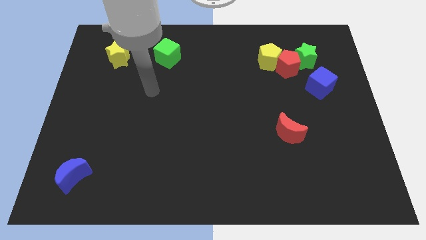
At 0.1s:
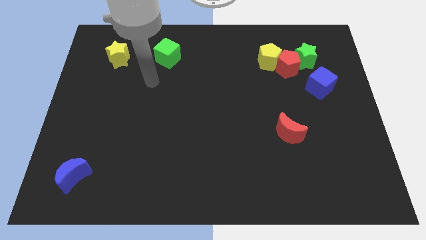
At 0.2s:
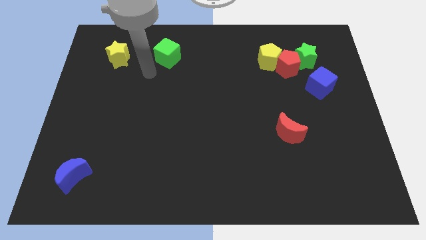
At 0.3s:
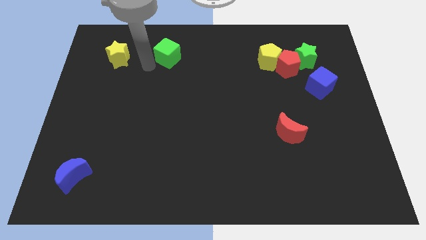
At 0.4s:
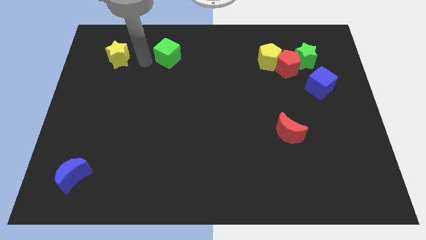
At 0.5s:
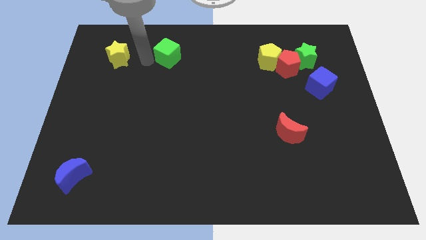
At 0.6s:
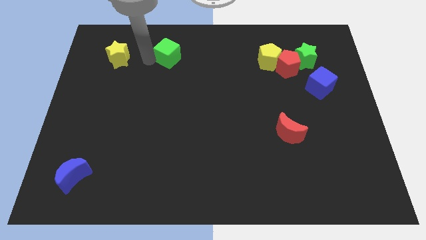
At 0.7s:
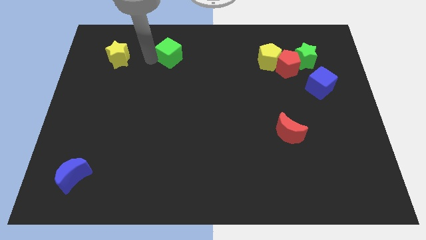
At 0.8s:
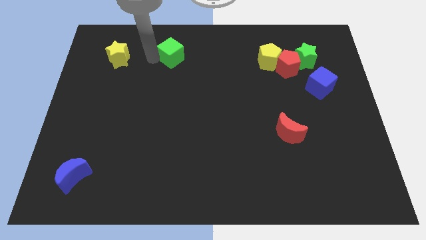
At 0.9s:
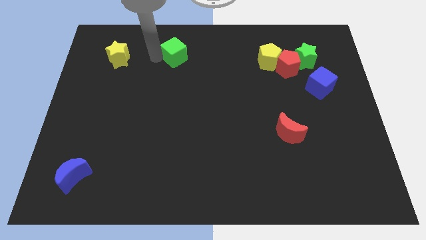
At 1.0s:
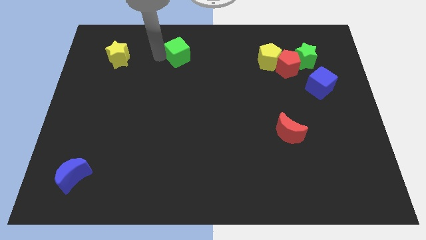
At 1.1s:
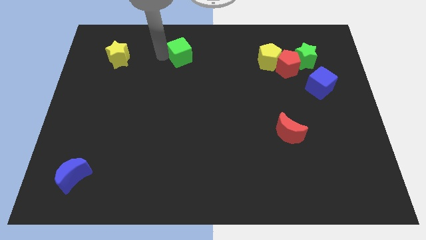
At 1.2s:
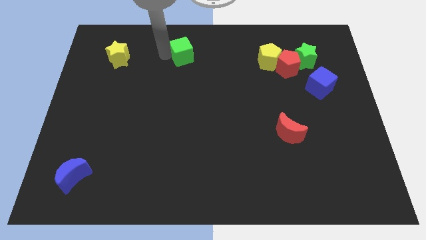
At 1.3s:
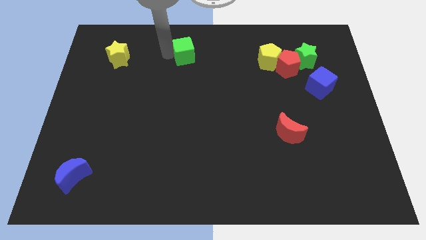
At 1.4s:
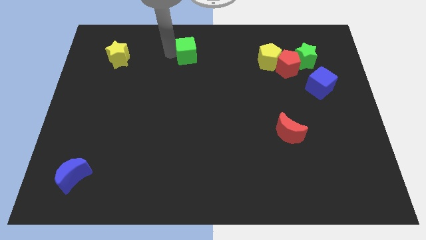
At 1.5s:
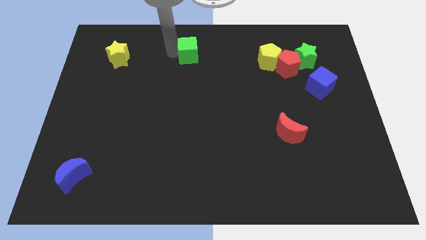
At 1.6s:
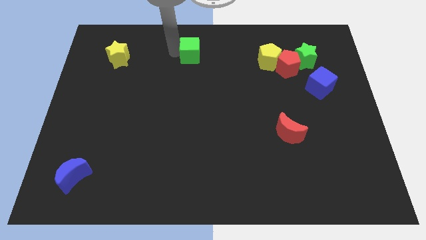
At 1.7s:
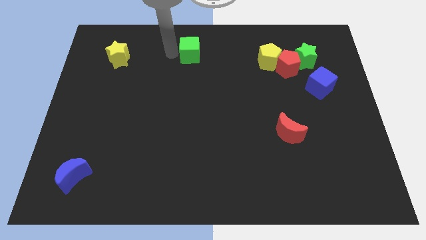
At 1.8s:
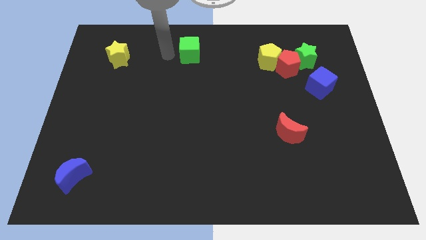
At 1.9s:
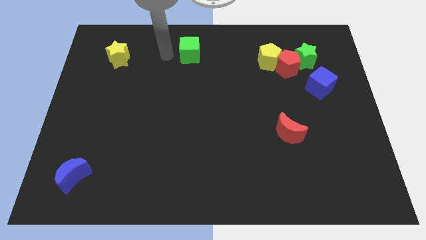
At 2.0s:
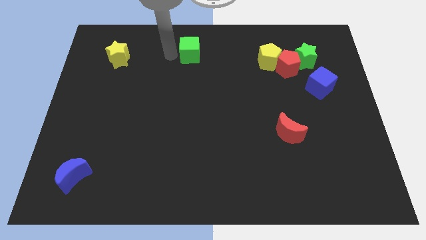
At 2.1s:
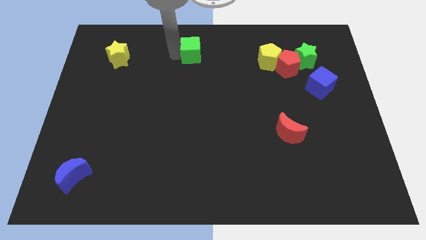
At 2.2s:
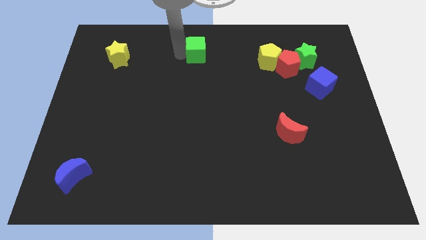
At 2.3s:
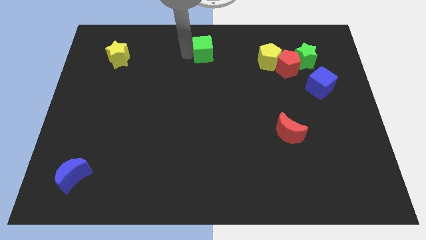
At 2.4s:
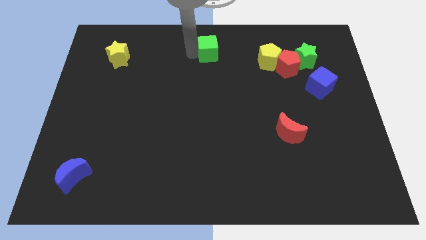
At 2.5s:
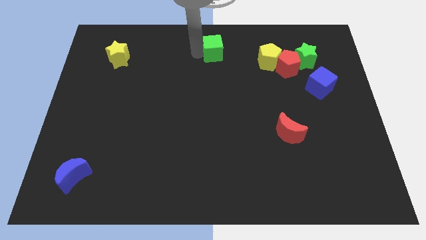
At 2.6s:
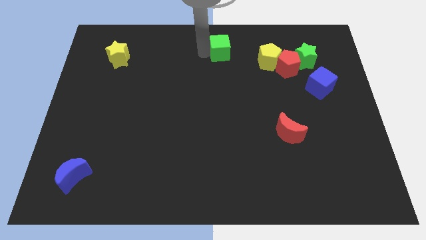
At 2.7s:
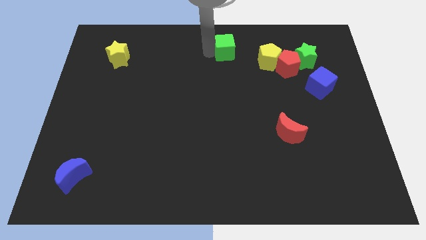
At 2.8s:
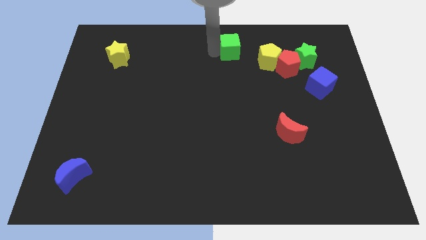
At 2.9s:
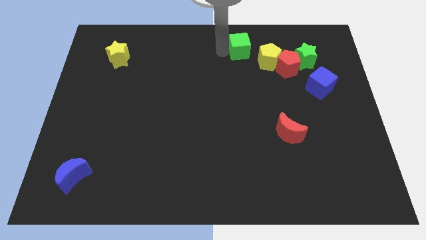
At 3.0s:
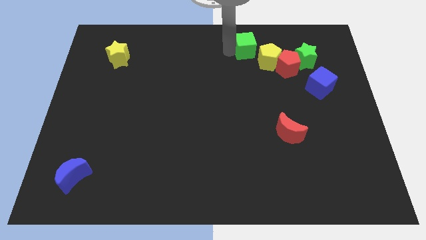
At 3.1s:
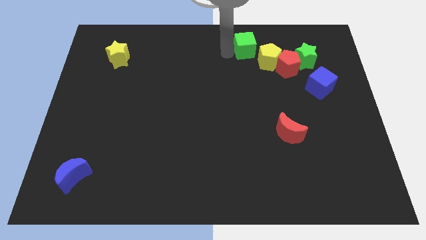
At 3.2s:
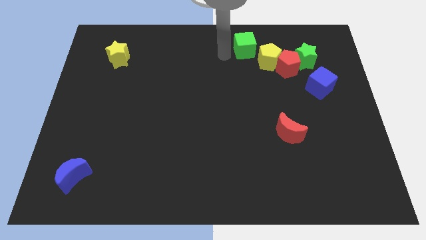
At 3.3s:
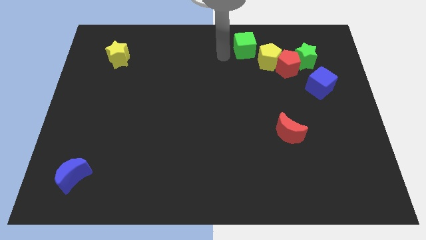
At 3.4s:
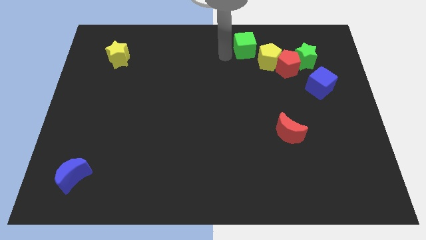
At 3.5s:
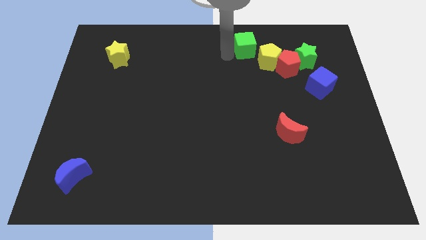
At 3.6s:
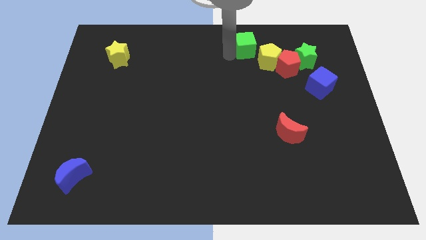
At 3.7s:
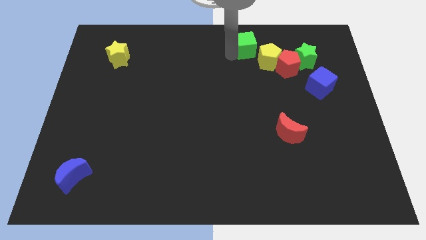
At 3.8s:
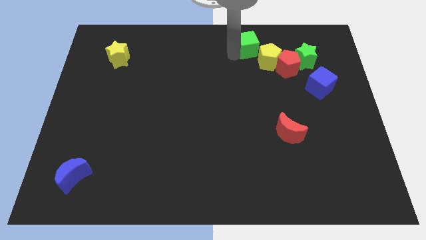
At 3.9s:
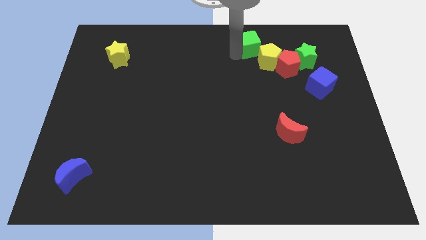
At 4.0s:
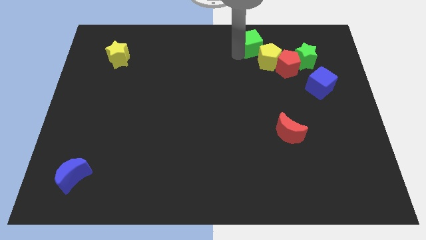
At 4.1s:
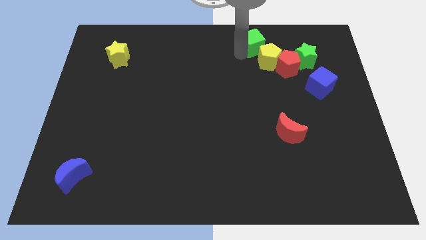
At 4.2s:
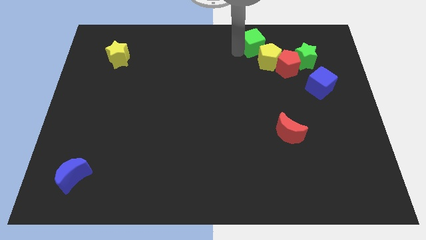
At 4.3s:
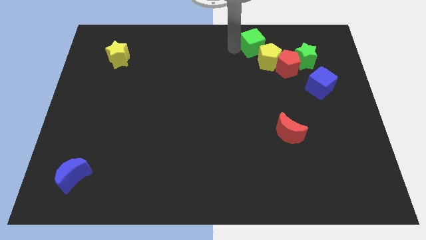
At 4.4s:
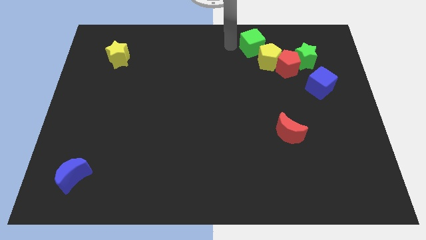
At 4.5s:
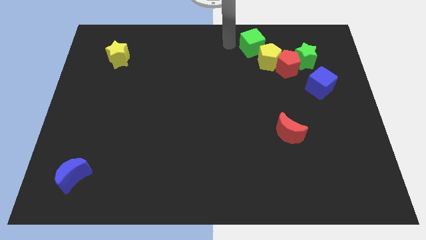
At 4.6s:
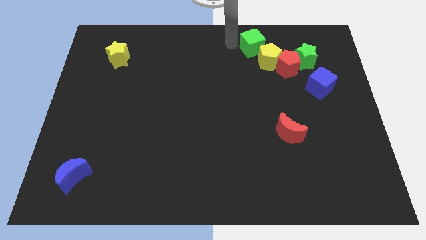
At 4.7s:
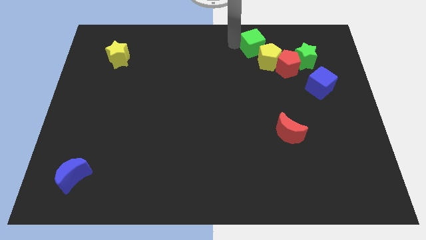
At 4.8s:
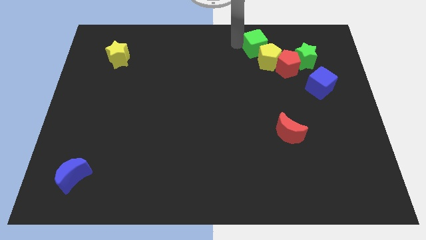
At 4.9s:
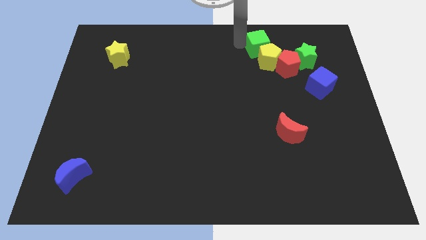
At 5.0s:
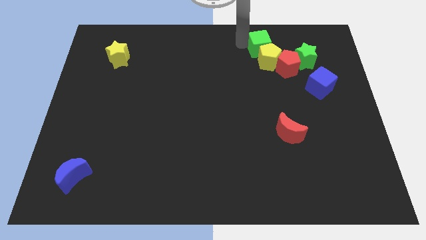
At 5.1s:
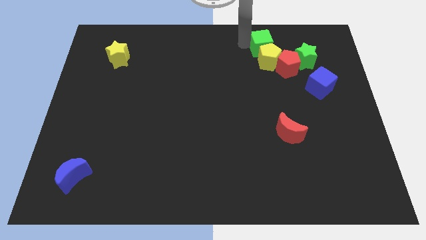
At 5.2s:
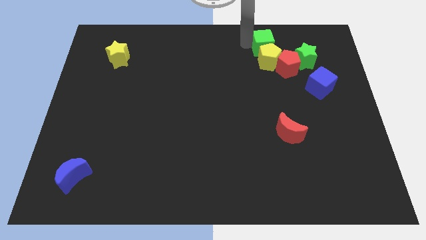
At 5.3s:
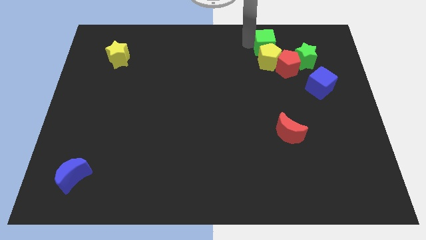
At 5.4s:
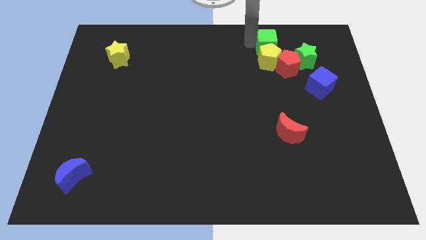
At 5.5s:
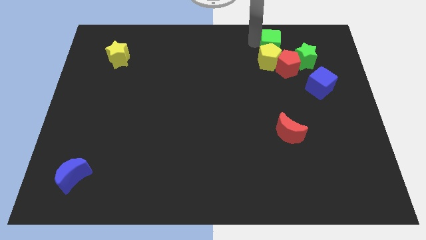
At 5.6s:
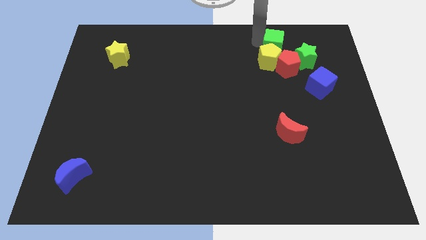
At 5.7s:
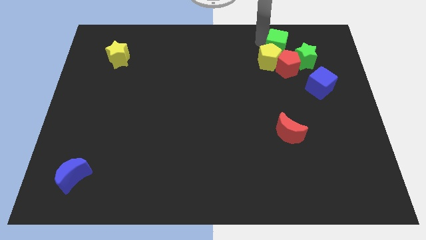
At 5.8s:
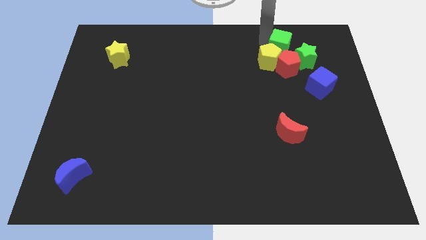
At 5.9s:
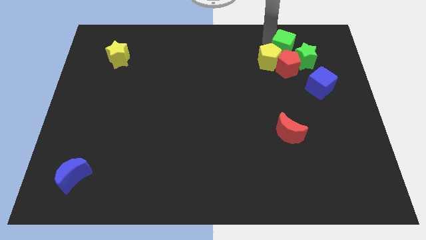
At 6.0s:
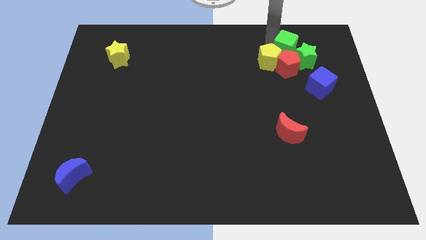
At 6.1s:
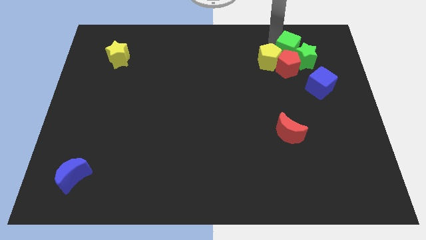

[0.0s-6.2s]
slide the green cube next to the green star

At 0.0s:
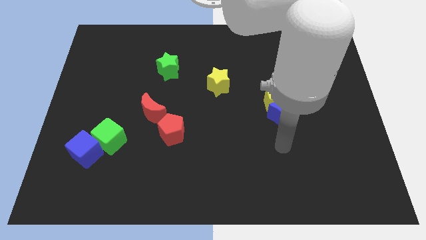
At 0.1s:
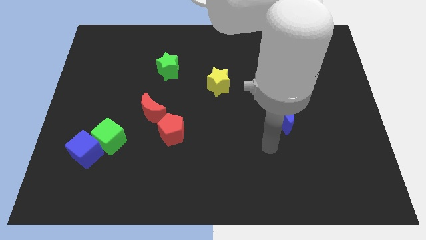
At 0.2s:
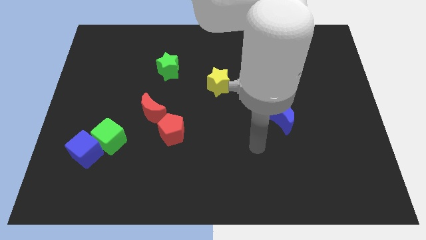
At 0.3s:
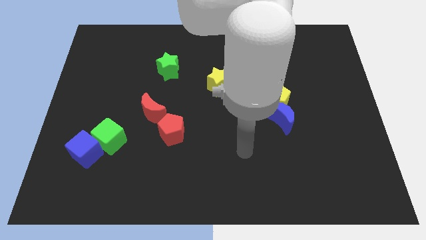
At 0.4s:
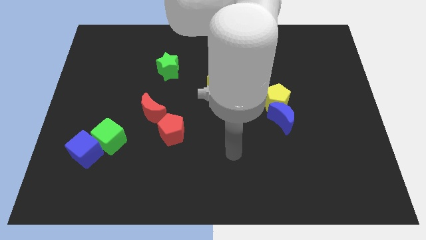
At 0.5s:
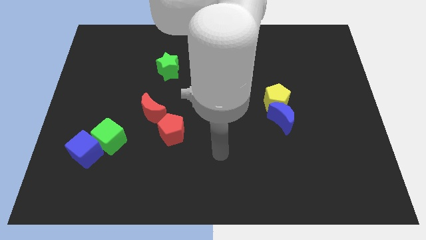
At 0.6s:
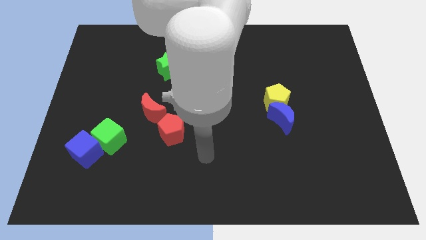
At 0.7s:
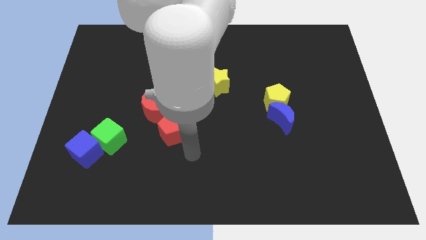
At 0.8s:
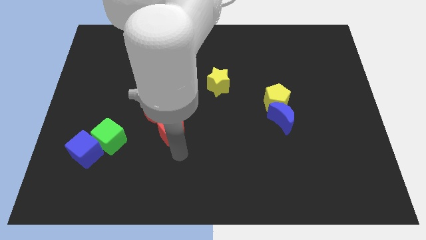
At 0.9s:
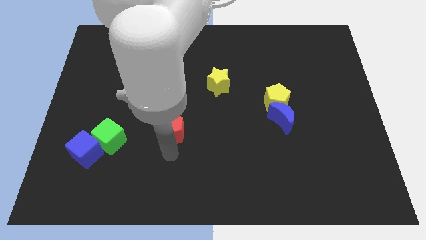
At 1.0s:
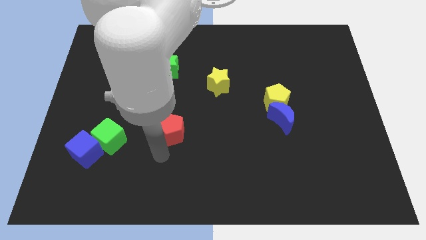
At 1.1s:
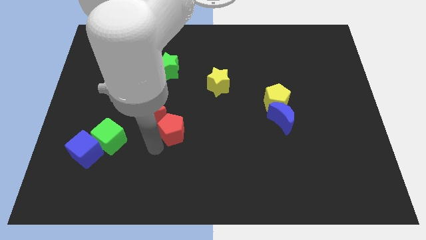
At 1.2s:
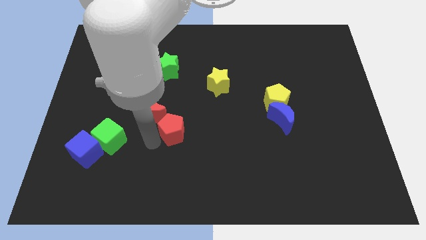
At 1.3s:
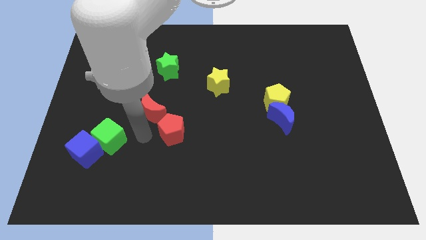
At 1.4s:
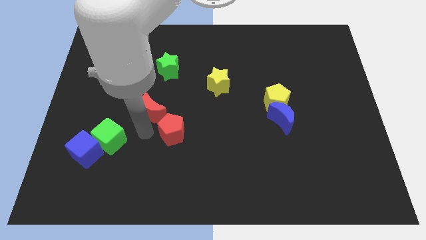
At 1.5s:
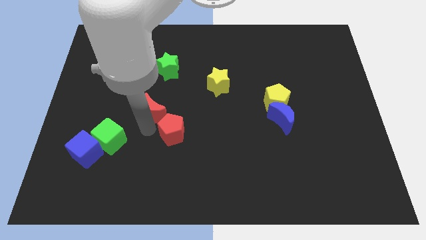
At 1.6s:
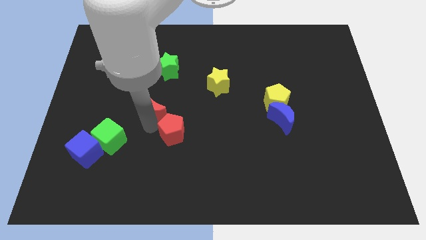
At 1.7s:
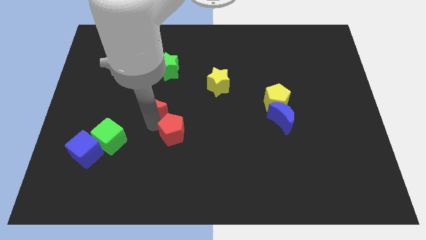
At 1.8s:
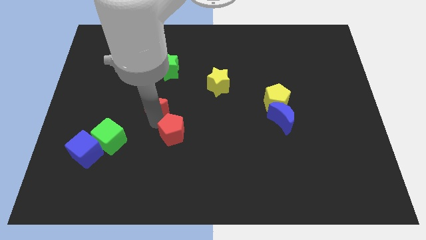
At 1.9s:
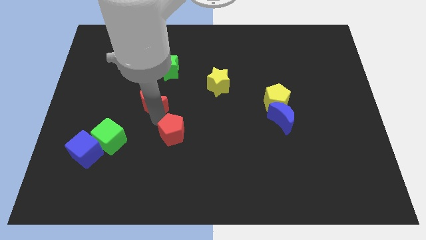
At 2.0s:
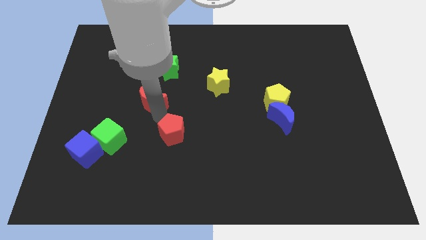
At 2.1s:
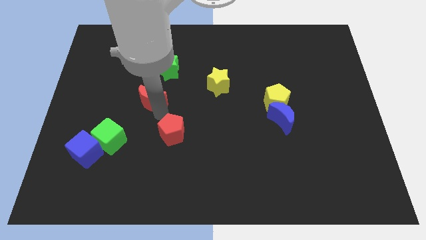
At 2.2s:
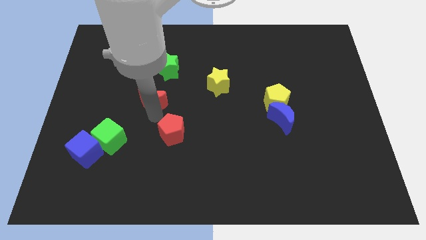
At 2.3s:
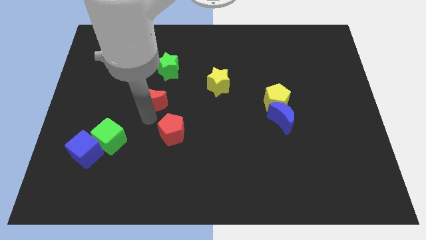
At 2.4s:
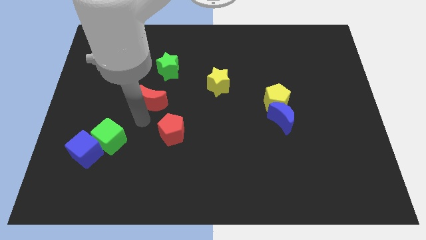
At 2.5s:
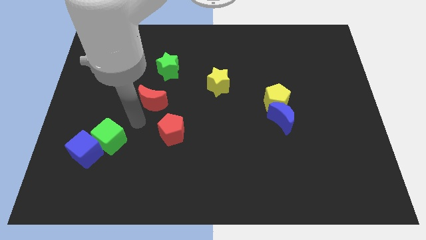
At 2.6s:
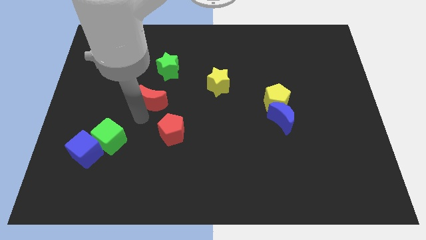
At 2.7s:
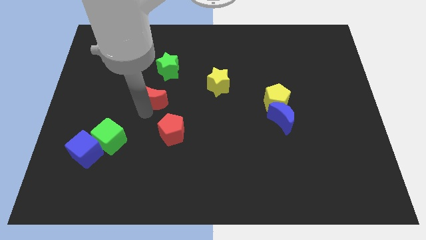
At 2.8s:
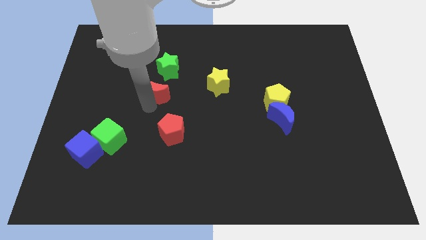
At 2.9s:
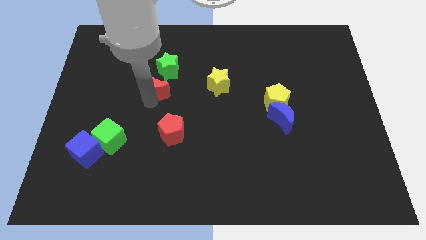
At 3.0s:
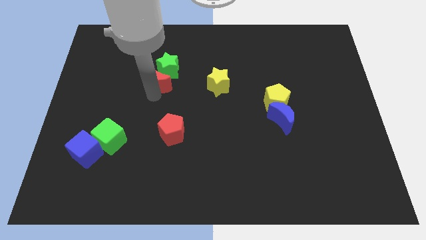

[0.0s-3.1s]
put the red moon next to the green star
